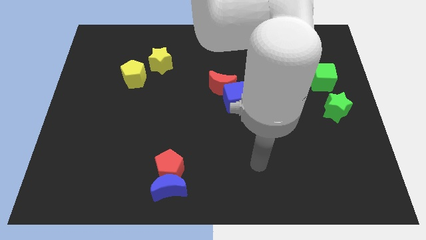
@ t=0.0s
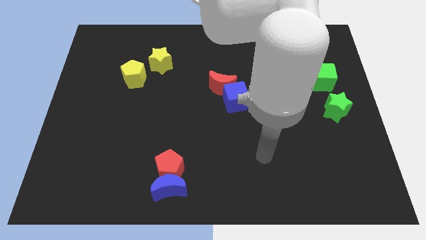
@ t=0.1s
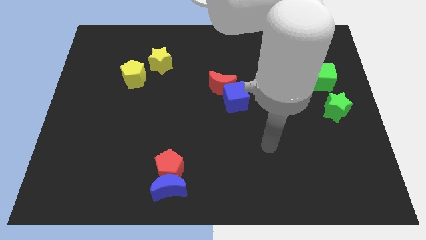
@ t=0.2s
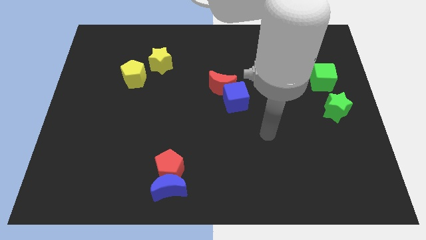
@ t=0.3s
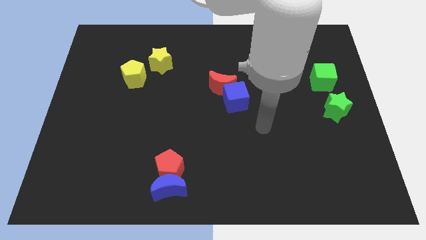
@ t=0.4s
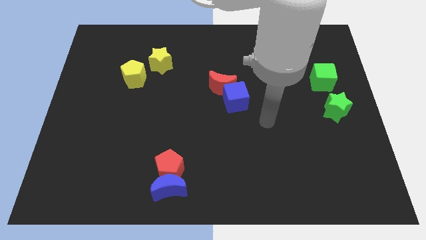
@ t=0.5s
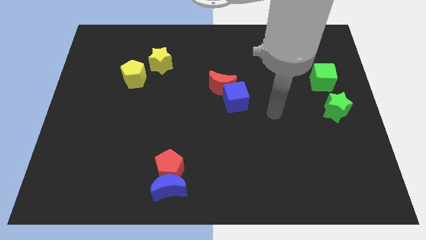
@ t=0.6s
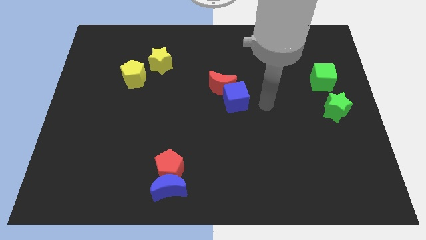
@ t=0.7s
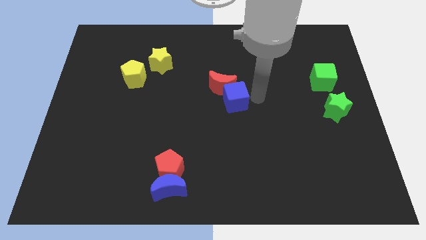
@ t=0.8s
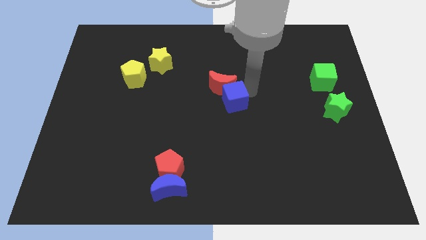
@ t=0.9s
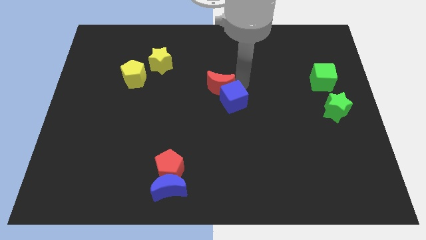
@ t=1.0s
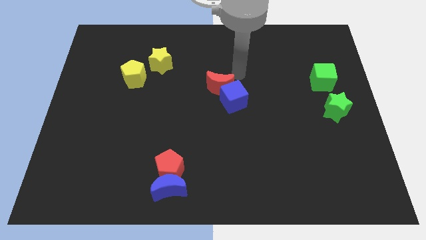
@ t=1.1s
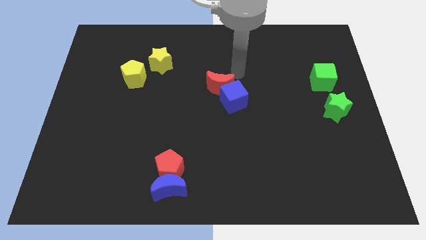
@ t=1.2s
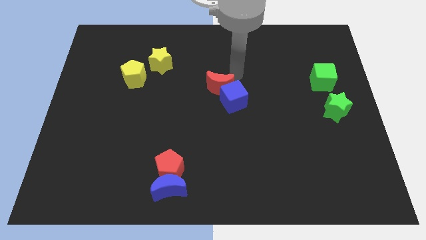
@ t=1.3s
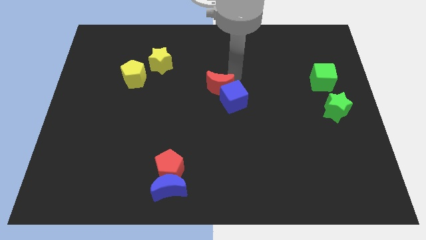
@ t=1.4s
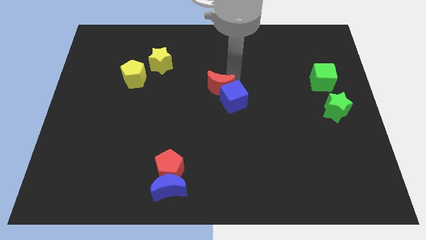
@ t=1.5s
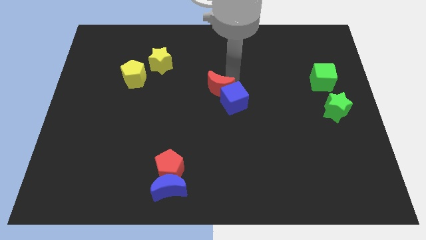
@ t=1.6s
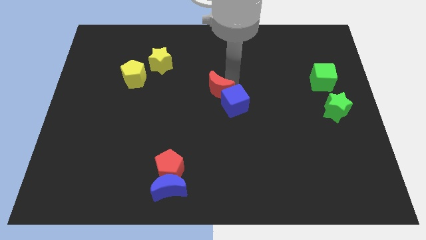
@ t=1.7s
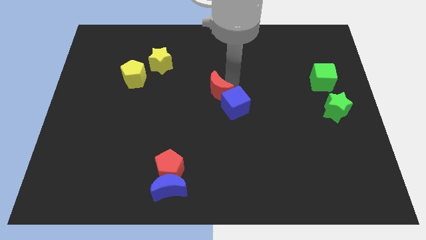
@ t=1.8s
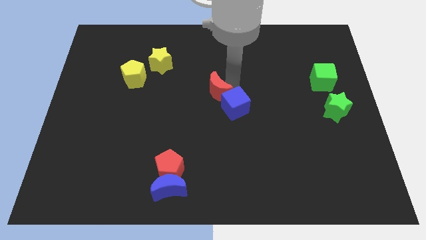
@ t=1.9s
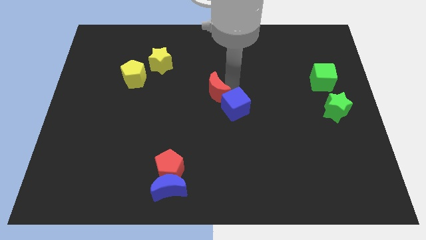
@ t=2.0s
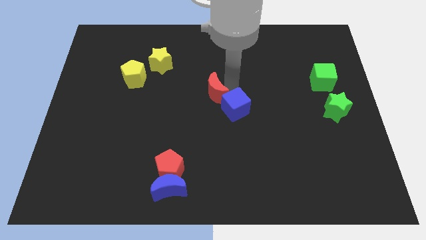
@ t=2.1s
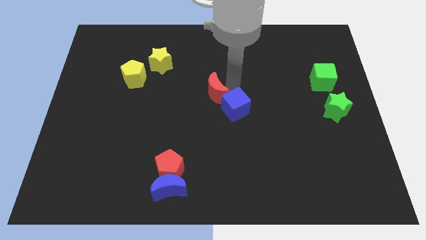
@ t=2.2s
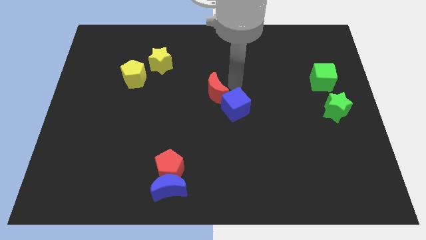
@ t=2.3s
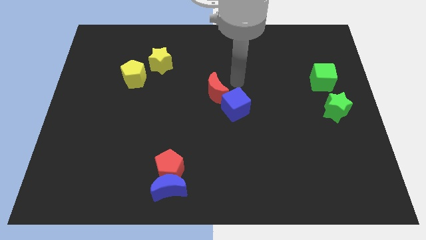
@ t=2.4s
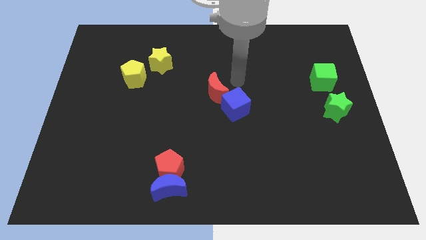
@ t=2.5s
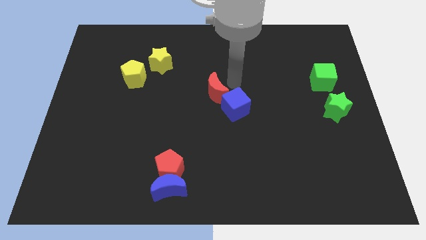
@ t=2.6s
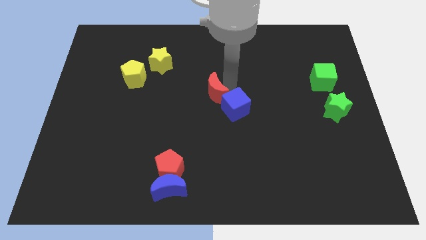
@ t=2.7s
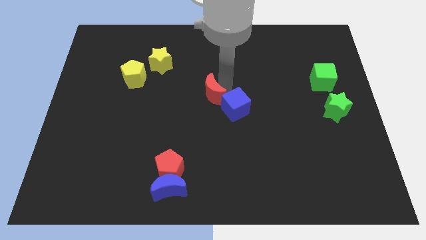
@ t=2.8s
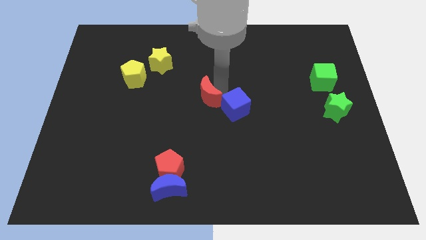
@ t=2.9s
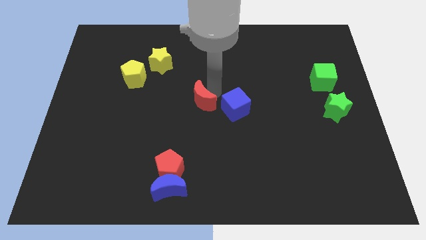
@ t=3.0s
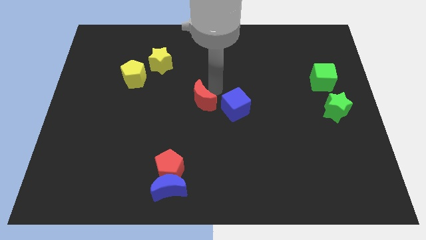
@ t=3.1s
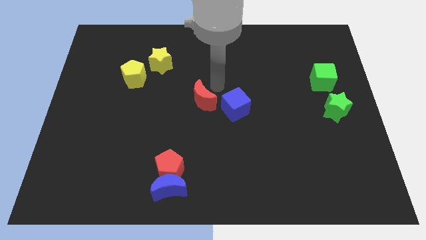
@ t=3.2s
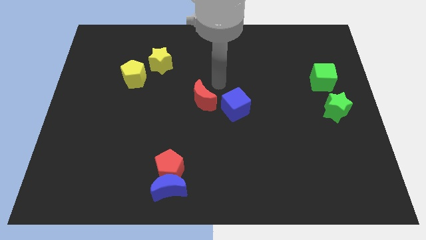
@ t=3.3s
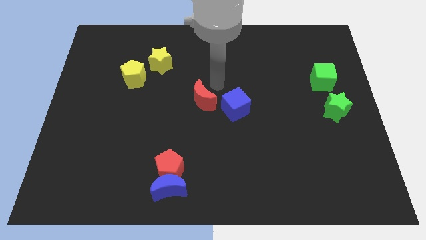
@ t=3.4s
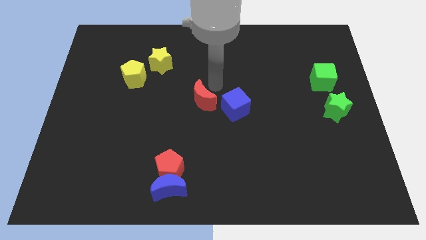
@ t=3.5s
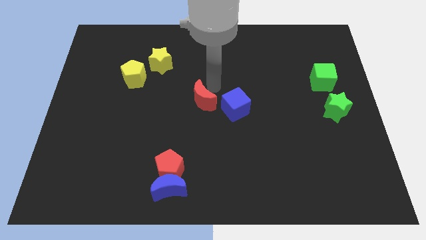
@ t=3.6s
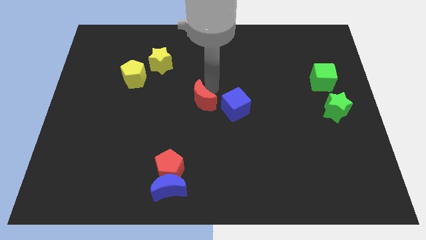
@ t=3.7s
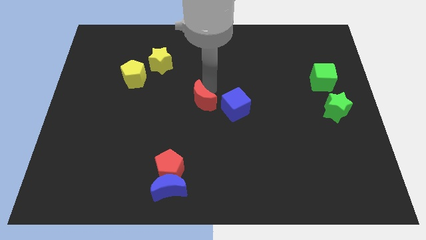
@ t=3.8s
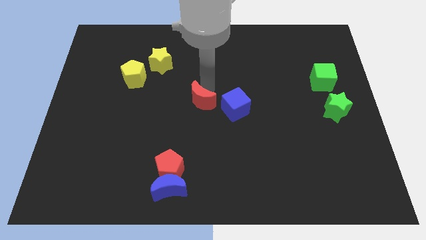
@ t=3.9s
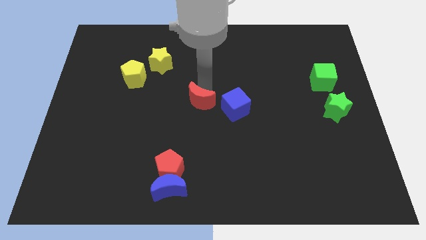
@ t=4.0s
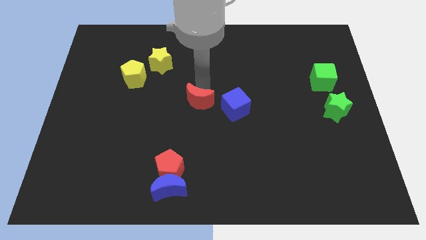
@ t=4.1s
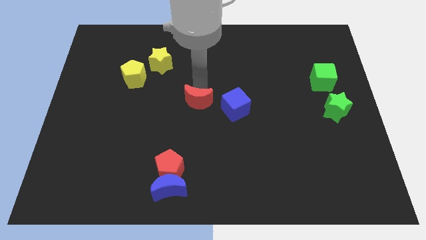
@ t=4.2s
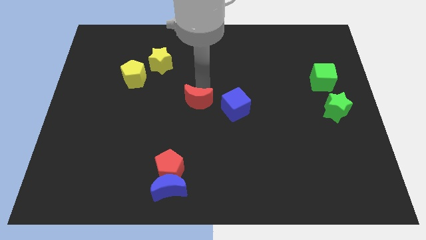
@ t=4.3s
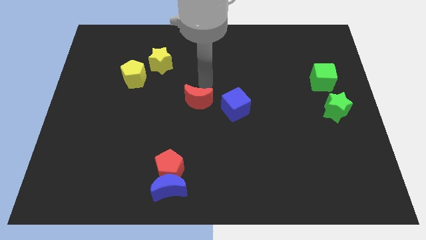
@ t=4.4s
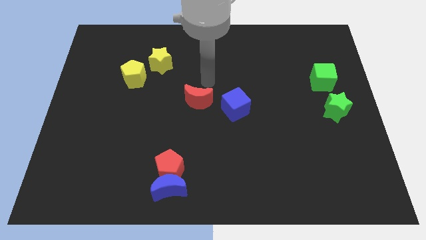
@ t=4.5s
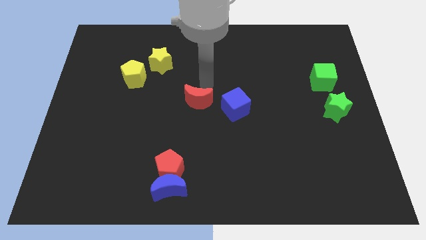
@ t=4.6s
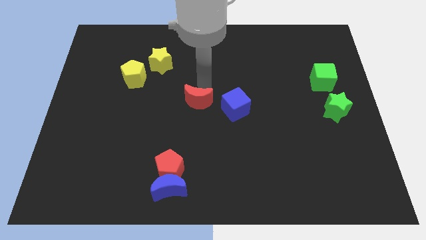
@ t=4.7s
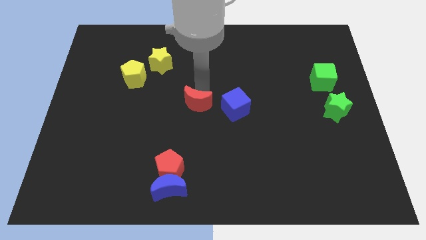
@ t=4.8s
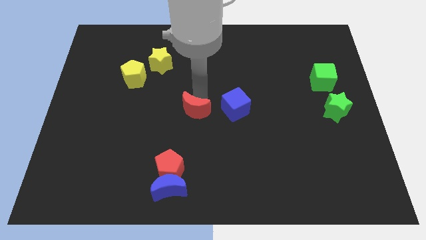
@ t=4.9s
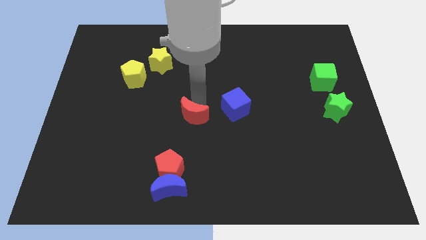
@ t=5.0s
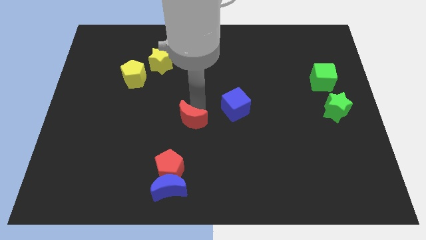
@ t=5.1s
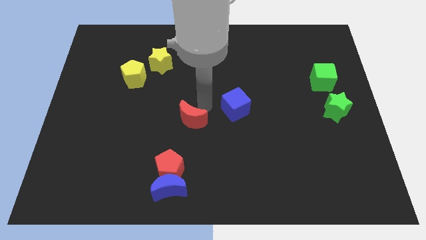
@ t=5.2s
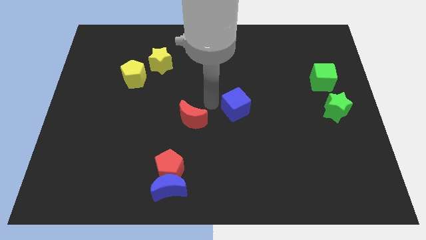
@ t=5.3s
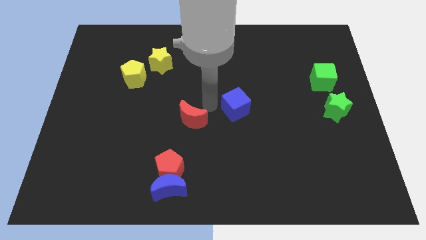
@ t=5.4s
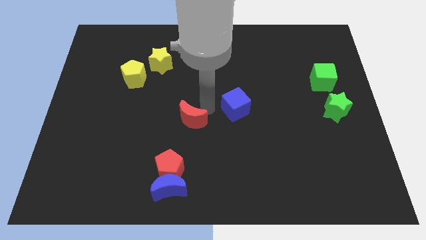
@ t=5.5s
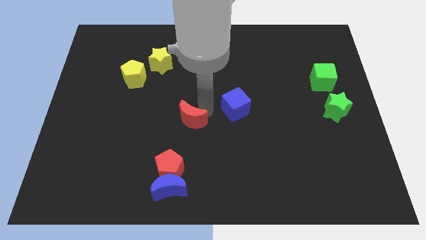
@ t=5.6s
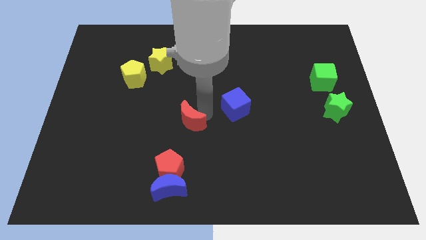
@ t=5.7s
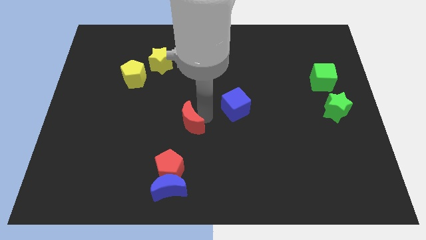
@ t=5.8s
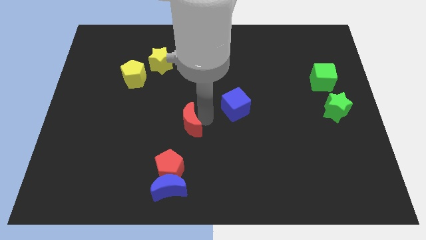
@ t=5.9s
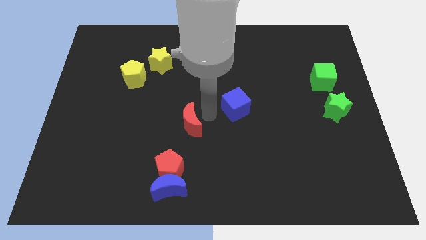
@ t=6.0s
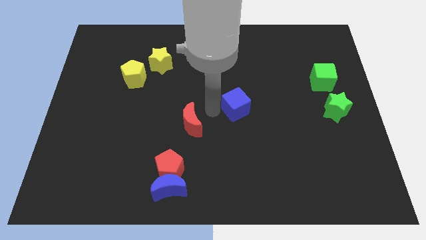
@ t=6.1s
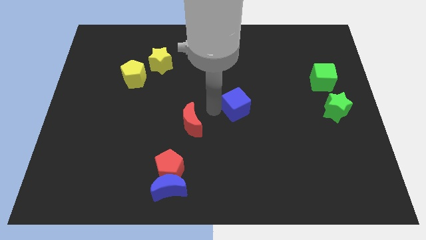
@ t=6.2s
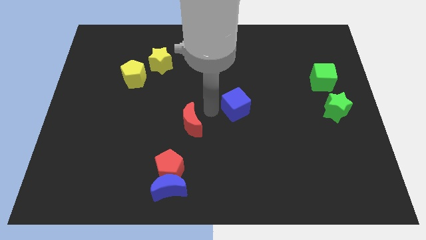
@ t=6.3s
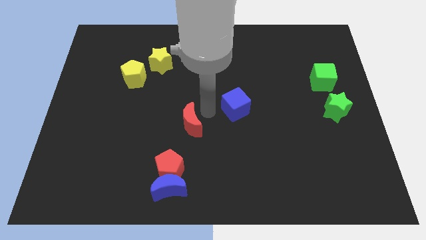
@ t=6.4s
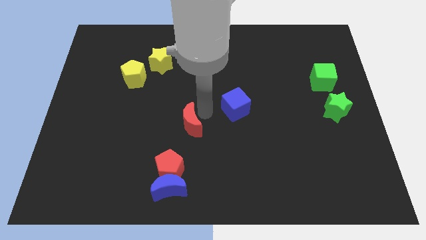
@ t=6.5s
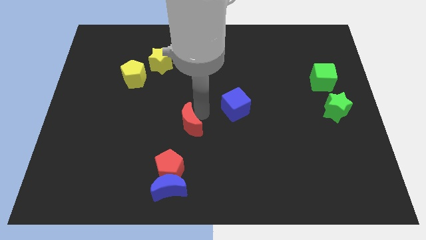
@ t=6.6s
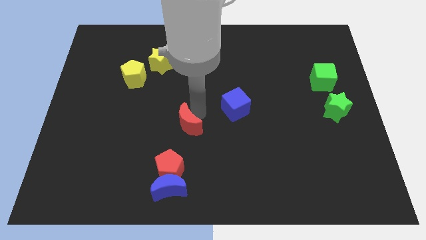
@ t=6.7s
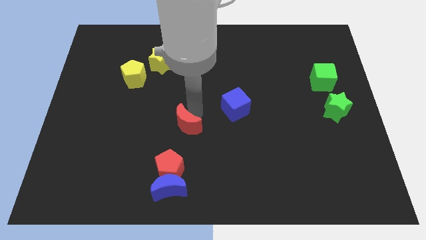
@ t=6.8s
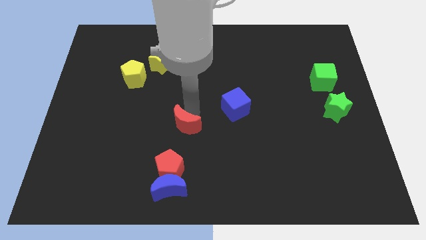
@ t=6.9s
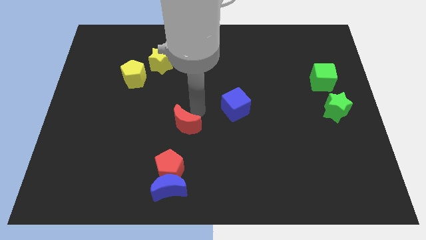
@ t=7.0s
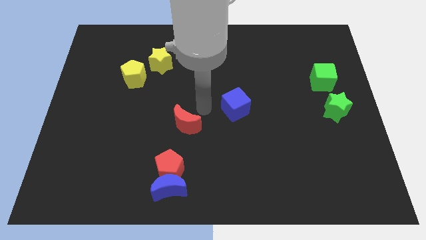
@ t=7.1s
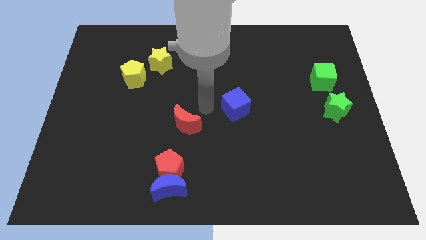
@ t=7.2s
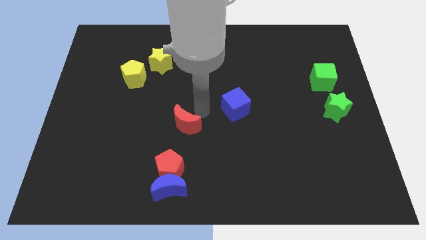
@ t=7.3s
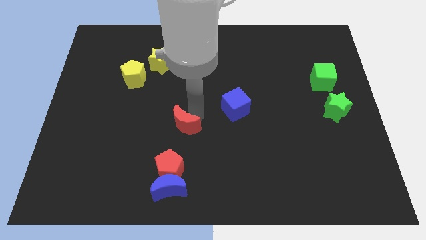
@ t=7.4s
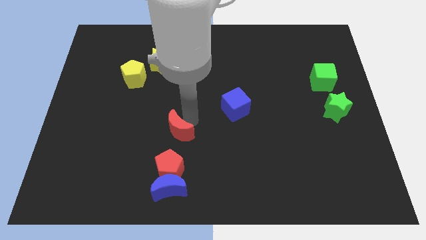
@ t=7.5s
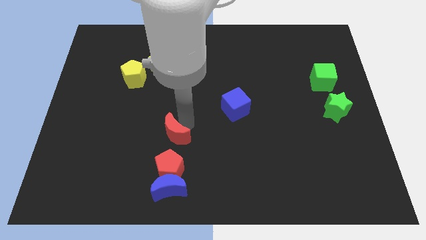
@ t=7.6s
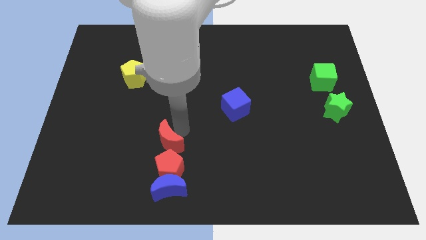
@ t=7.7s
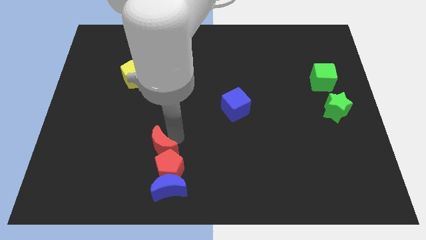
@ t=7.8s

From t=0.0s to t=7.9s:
push the red moon down and left

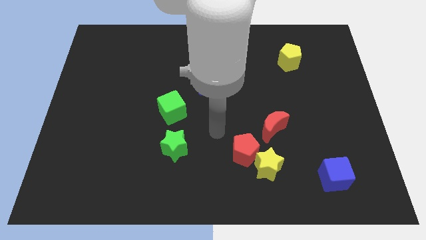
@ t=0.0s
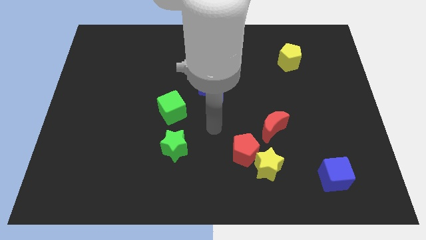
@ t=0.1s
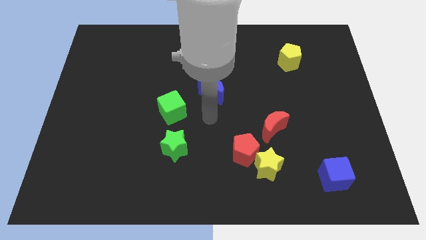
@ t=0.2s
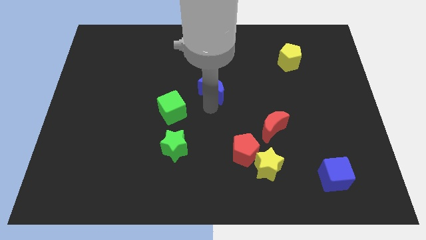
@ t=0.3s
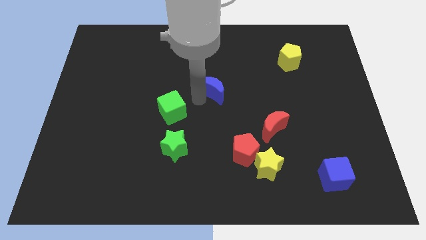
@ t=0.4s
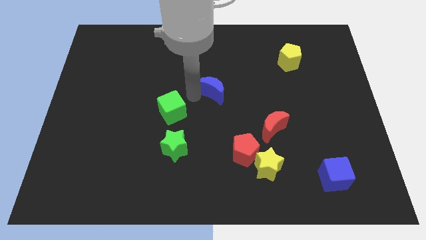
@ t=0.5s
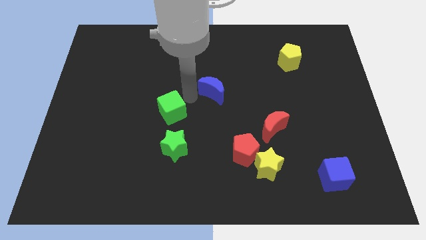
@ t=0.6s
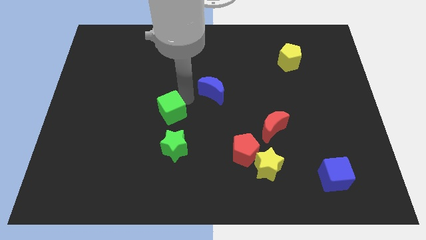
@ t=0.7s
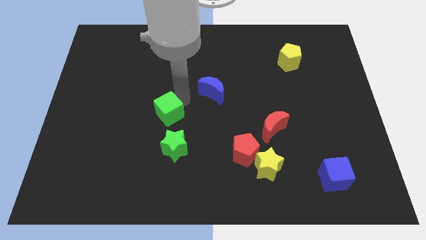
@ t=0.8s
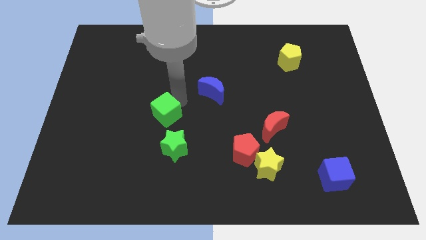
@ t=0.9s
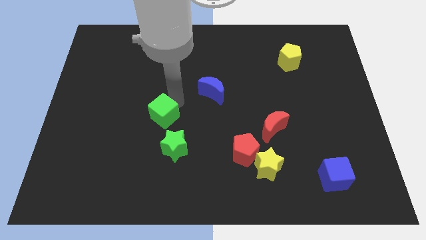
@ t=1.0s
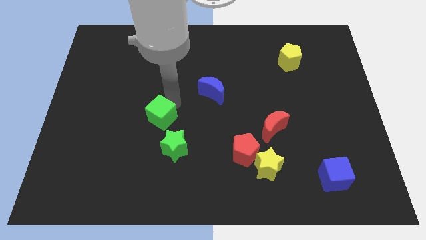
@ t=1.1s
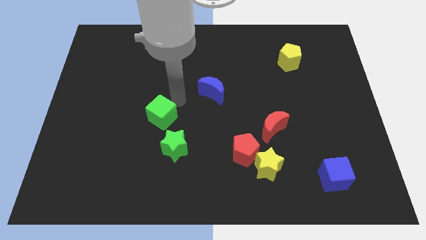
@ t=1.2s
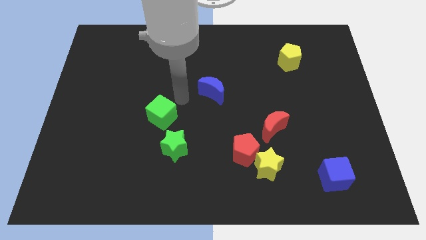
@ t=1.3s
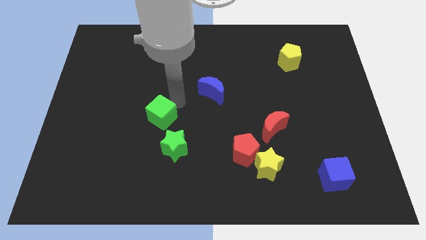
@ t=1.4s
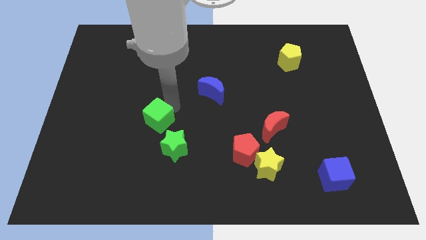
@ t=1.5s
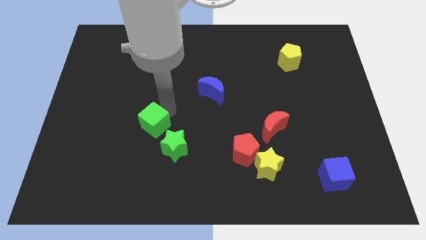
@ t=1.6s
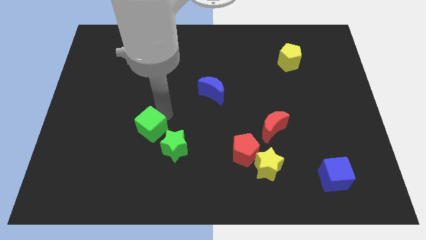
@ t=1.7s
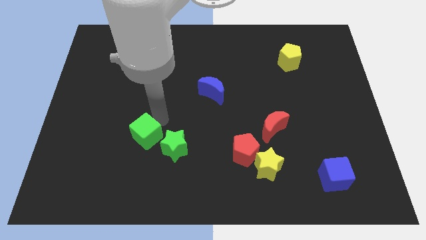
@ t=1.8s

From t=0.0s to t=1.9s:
slightly slide the green cube down and left diagonally
